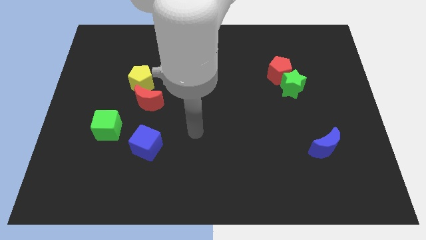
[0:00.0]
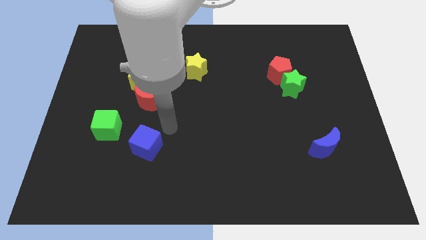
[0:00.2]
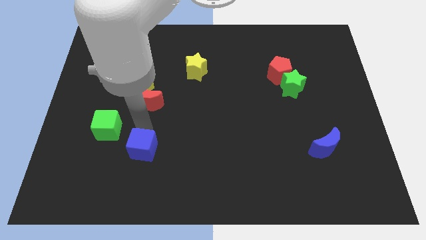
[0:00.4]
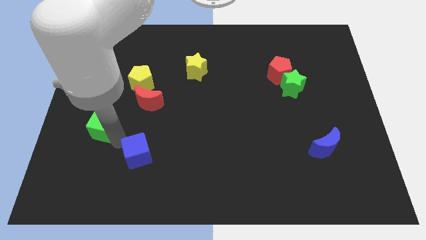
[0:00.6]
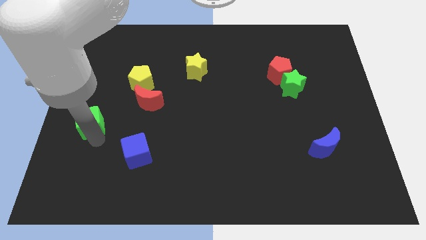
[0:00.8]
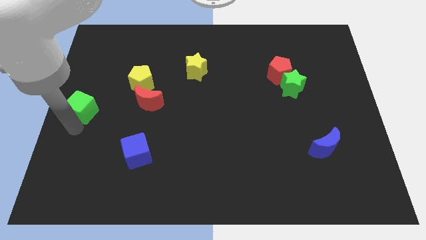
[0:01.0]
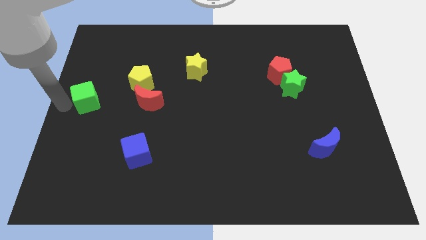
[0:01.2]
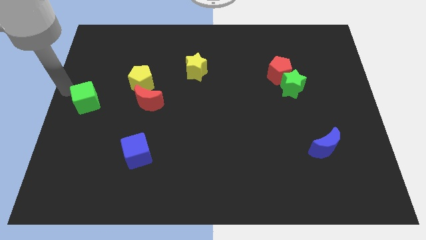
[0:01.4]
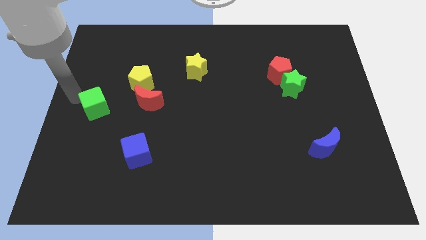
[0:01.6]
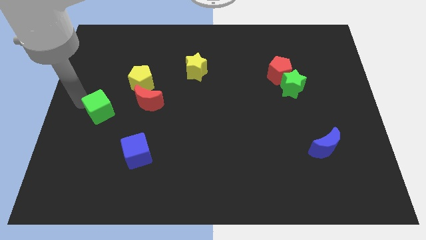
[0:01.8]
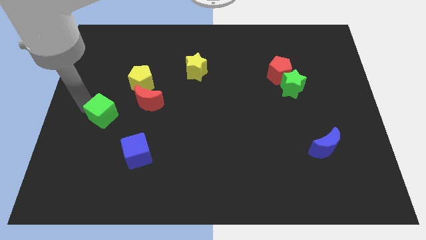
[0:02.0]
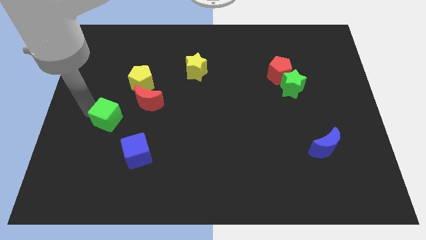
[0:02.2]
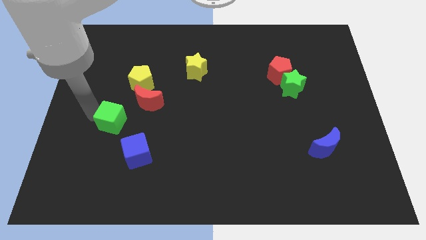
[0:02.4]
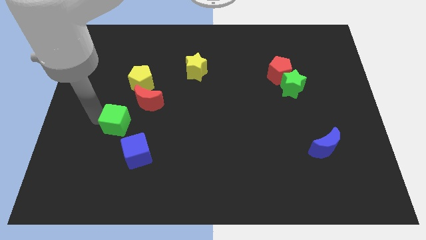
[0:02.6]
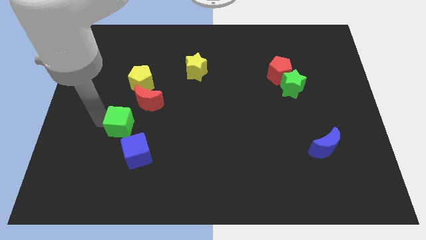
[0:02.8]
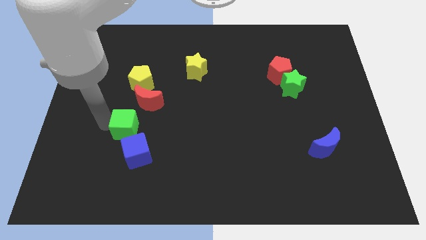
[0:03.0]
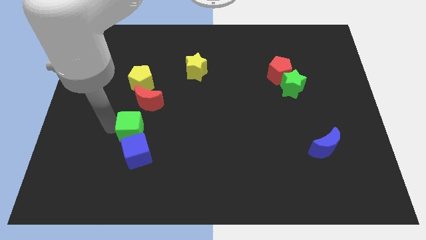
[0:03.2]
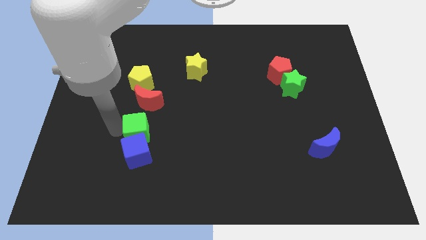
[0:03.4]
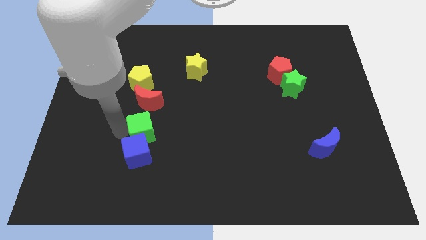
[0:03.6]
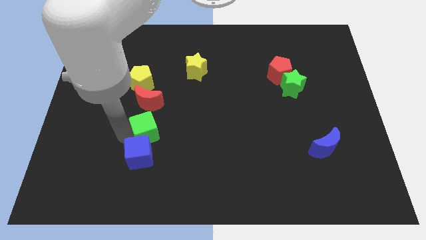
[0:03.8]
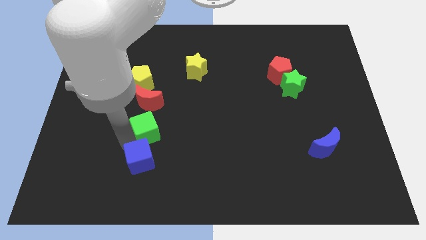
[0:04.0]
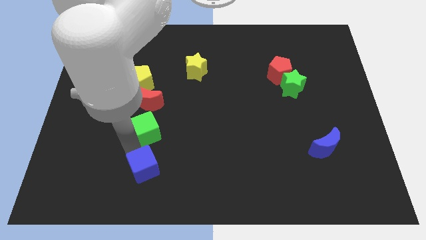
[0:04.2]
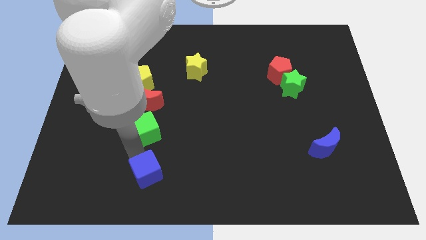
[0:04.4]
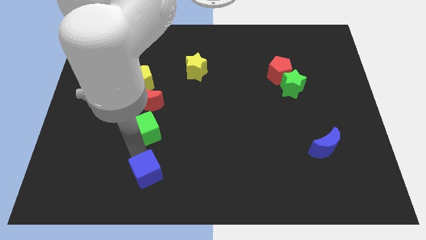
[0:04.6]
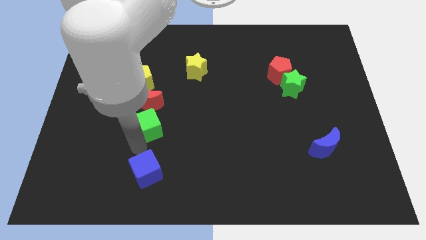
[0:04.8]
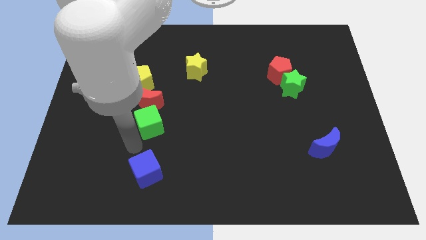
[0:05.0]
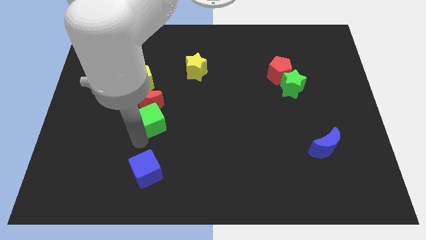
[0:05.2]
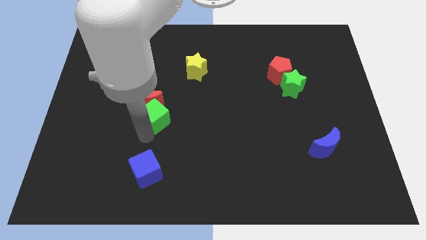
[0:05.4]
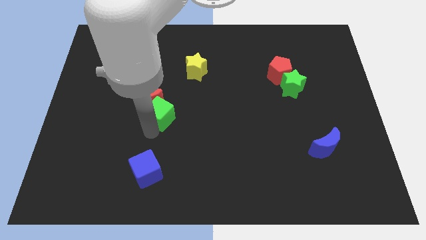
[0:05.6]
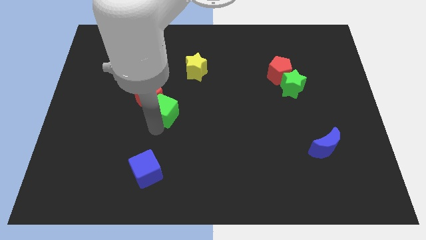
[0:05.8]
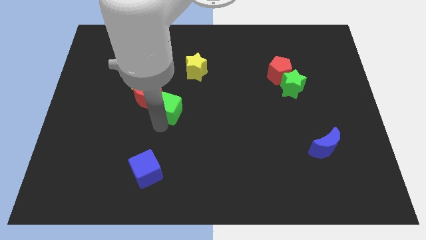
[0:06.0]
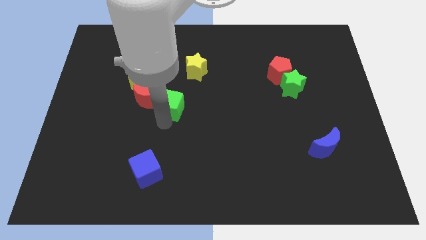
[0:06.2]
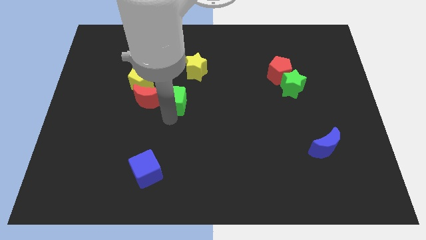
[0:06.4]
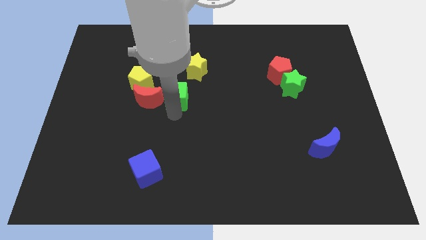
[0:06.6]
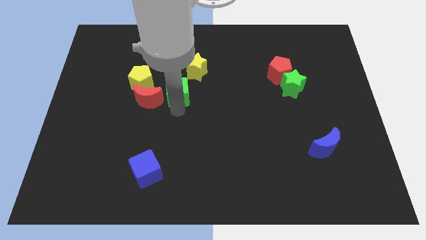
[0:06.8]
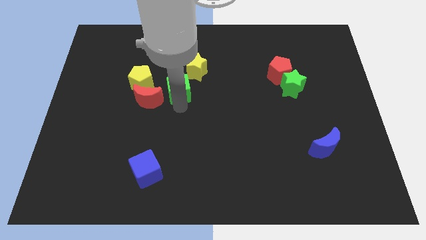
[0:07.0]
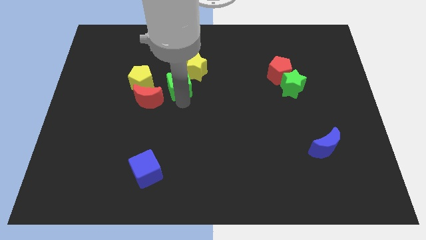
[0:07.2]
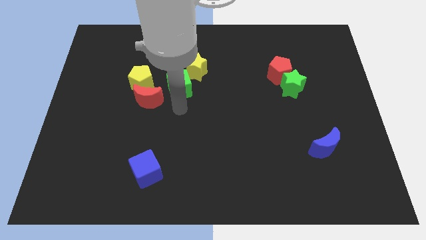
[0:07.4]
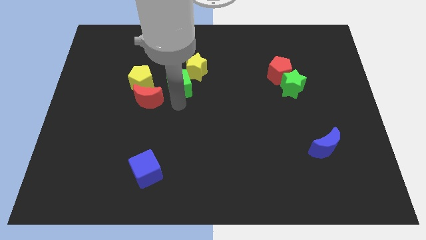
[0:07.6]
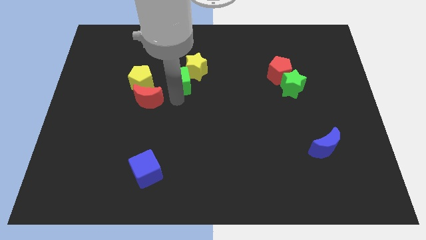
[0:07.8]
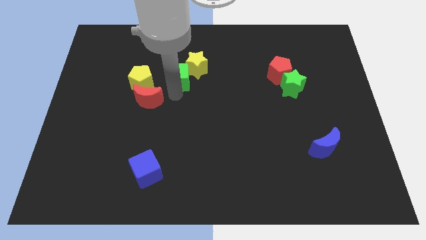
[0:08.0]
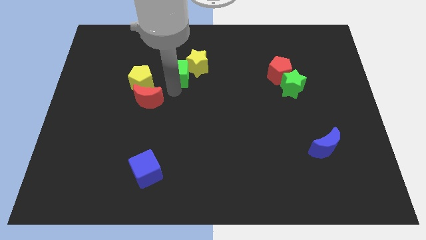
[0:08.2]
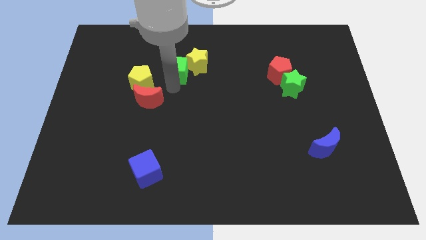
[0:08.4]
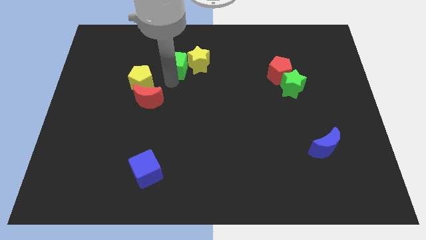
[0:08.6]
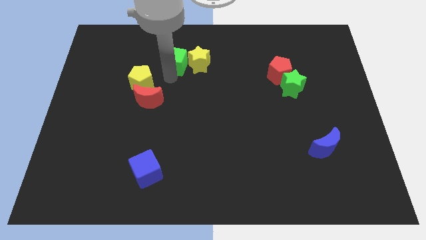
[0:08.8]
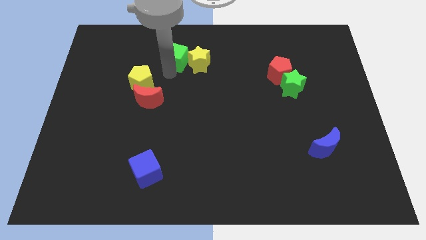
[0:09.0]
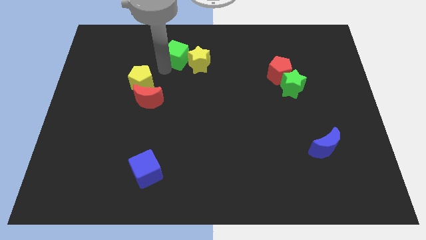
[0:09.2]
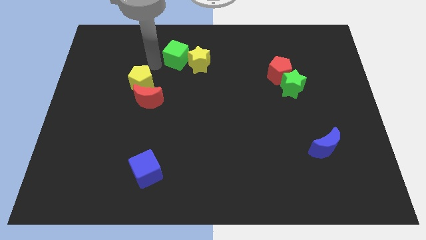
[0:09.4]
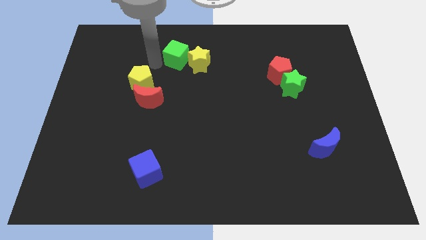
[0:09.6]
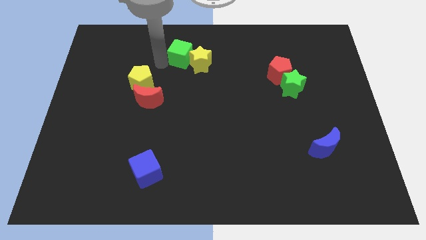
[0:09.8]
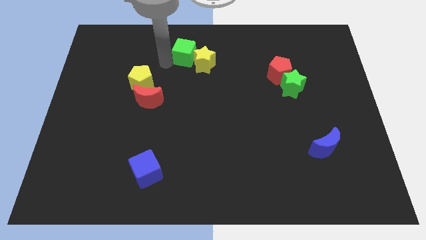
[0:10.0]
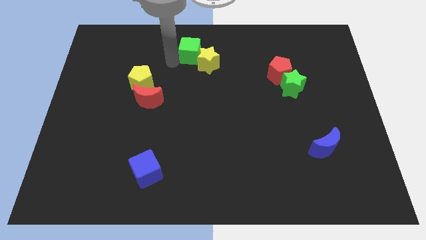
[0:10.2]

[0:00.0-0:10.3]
move the green cube to the towards your base
